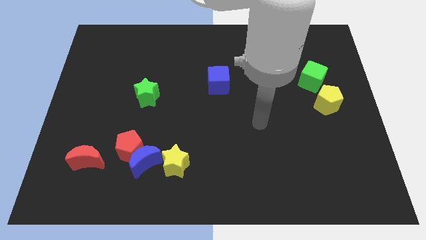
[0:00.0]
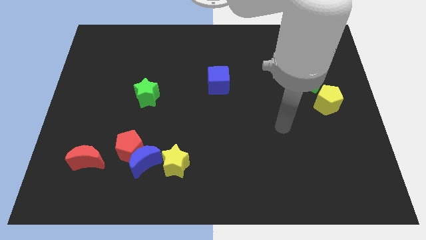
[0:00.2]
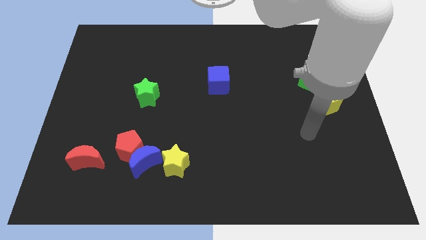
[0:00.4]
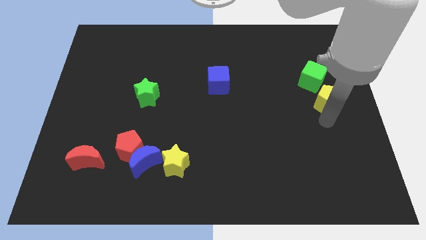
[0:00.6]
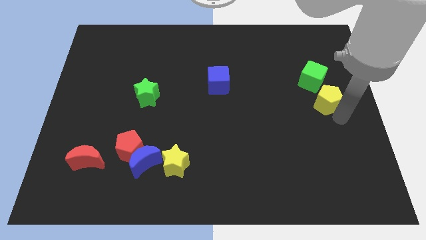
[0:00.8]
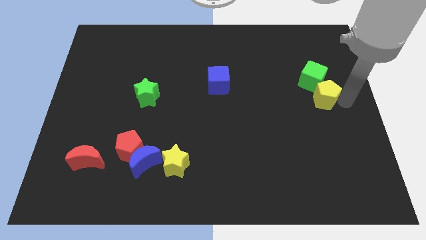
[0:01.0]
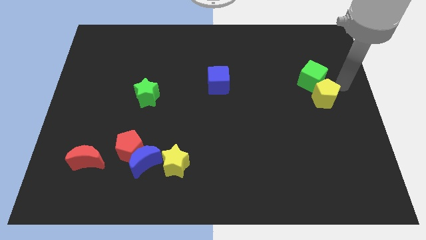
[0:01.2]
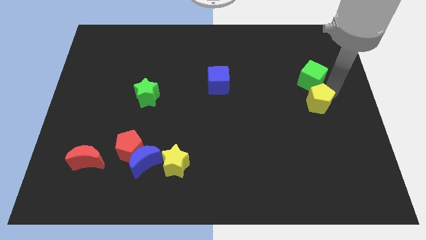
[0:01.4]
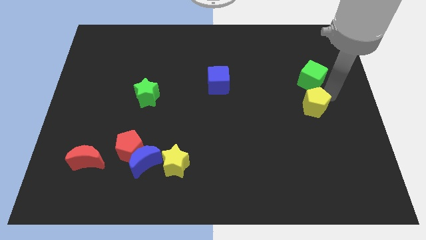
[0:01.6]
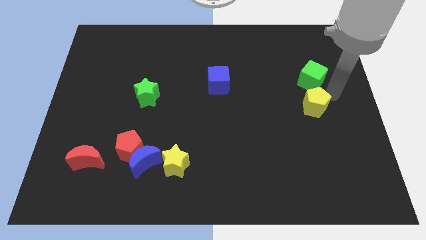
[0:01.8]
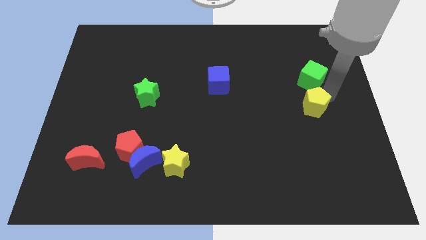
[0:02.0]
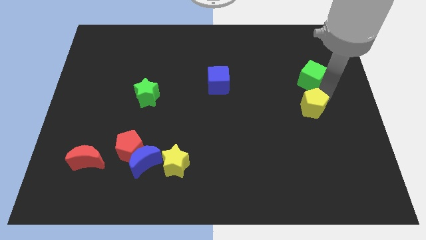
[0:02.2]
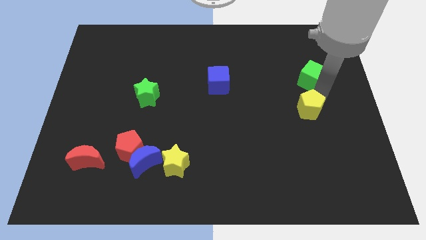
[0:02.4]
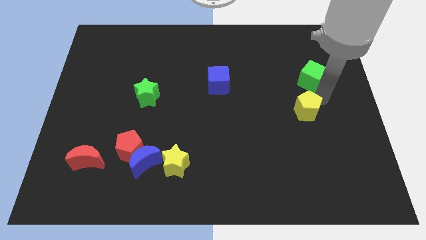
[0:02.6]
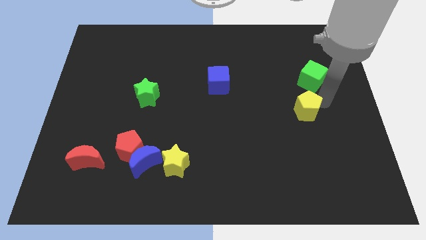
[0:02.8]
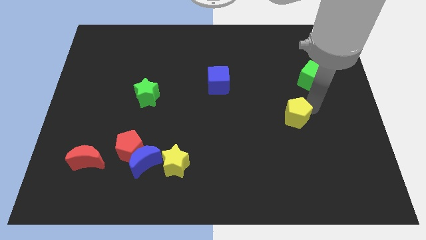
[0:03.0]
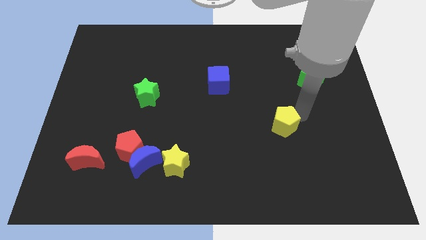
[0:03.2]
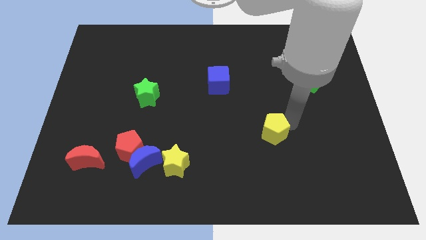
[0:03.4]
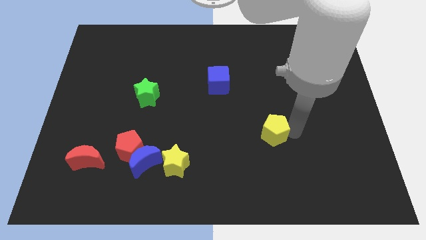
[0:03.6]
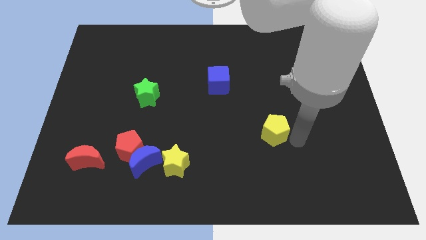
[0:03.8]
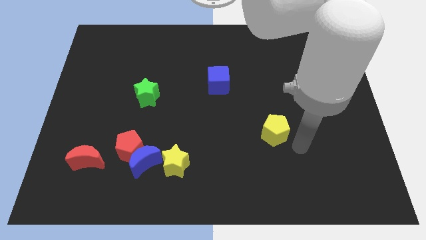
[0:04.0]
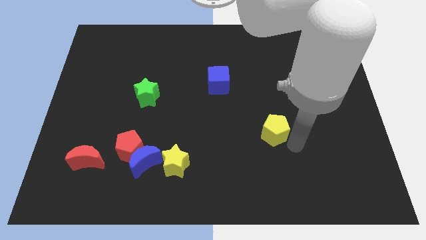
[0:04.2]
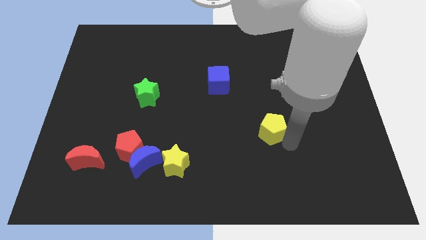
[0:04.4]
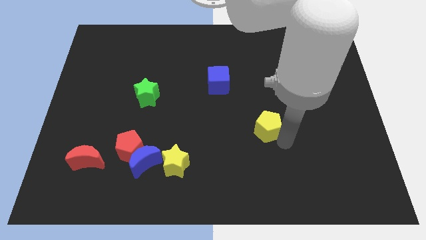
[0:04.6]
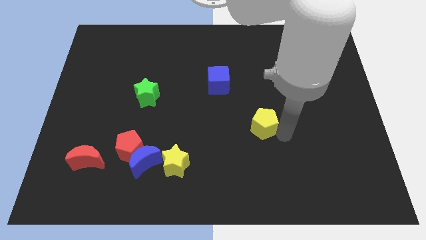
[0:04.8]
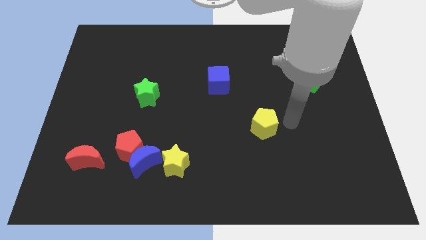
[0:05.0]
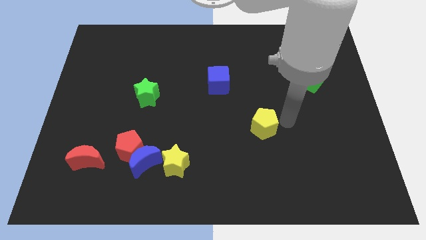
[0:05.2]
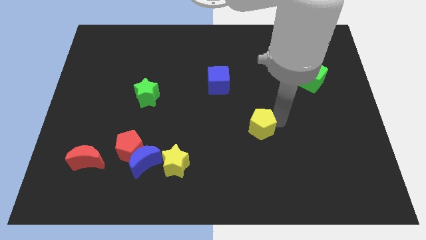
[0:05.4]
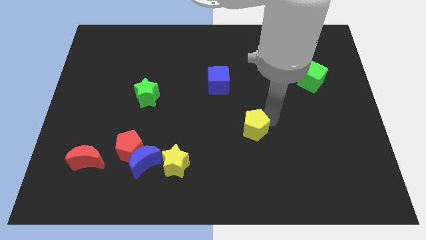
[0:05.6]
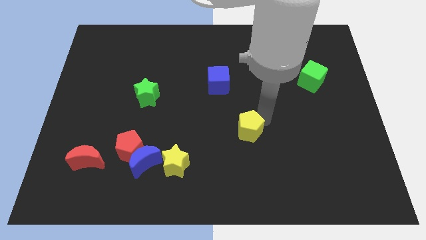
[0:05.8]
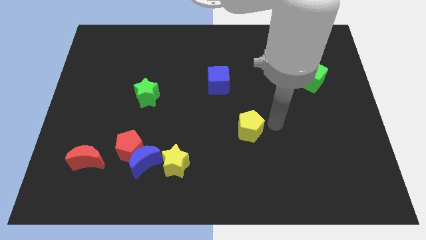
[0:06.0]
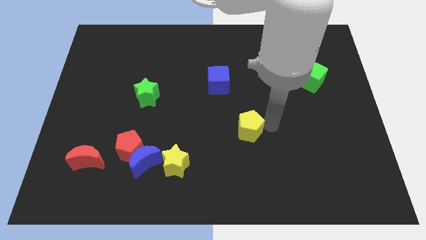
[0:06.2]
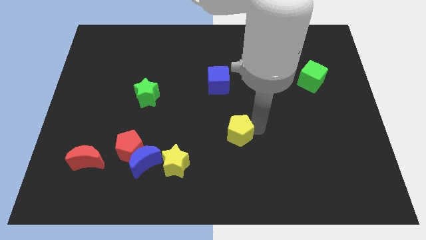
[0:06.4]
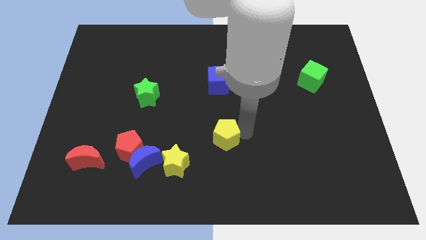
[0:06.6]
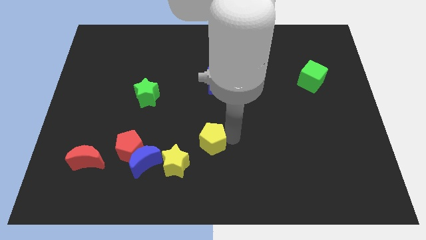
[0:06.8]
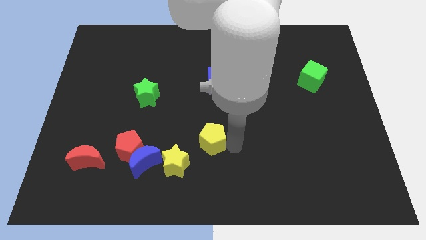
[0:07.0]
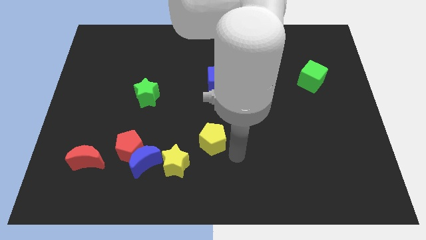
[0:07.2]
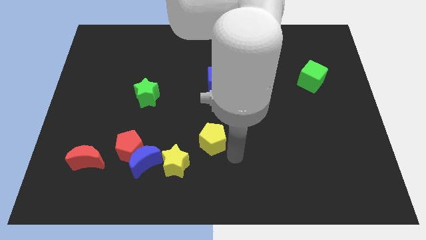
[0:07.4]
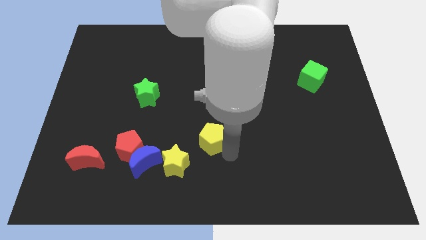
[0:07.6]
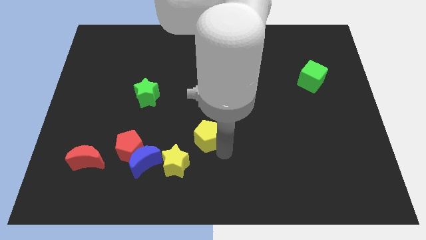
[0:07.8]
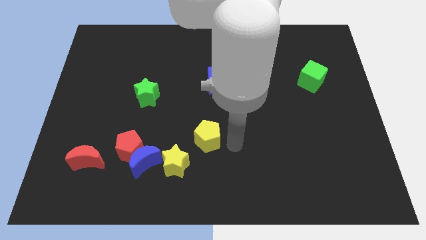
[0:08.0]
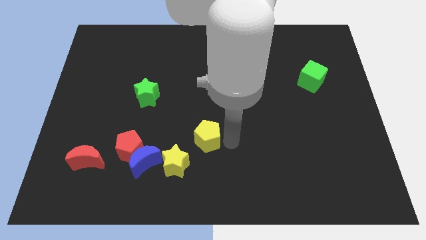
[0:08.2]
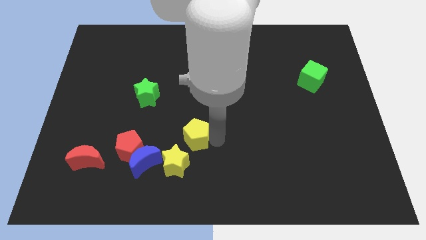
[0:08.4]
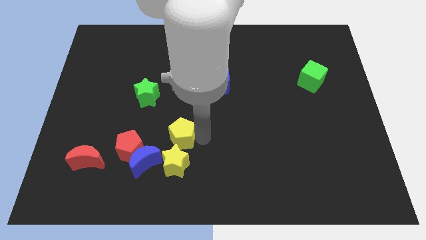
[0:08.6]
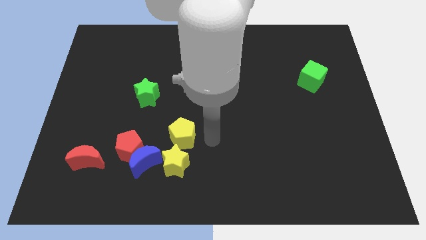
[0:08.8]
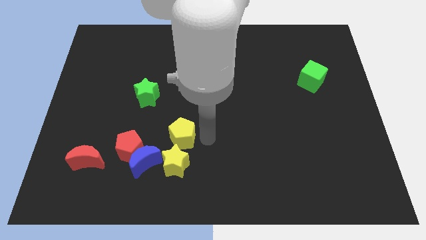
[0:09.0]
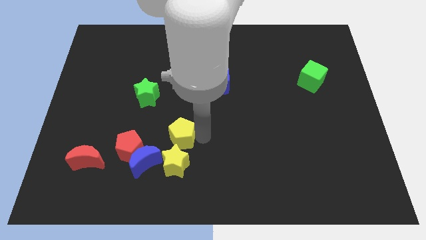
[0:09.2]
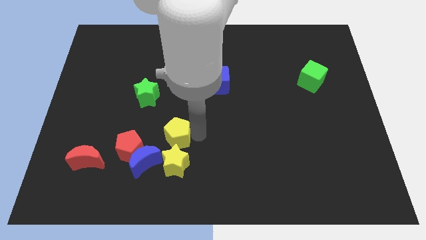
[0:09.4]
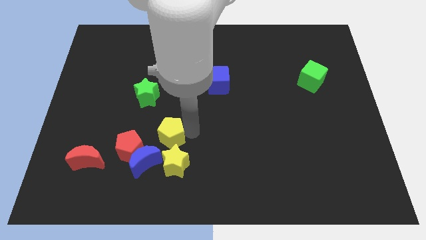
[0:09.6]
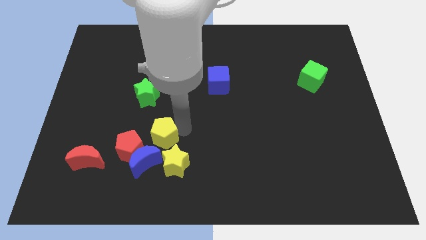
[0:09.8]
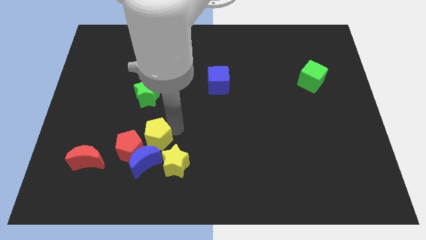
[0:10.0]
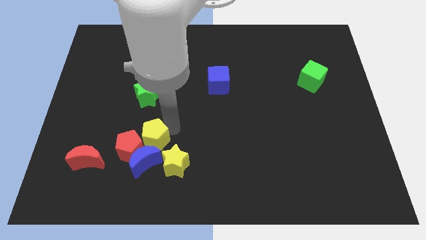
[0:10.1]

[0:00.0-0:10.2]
slide the yellow pentagon next to the red pentagon

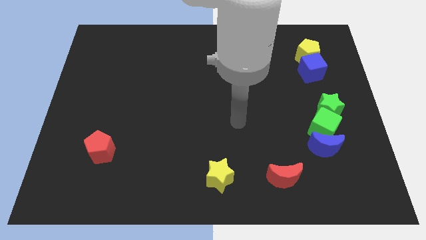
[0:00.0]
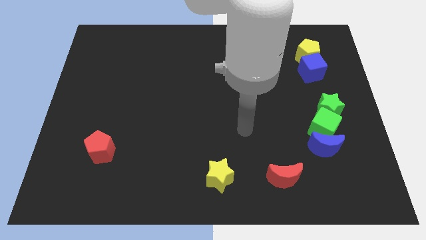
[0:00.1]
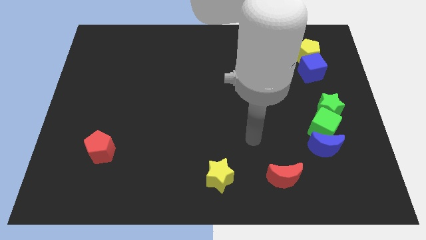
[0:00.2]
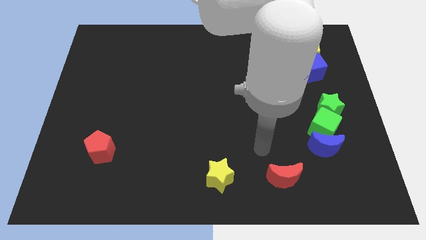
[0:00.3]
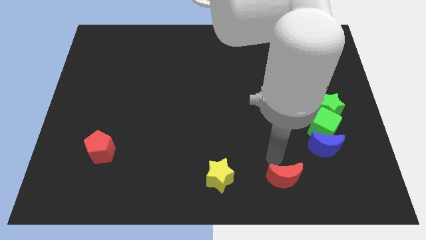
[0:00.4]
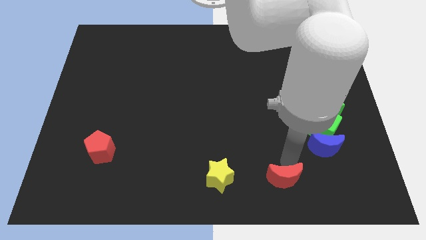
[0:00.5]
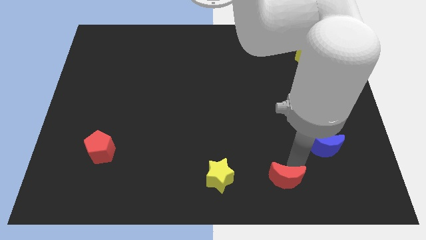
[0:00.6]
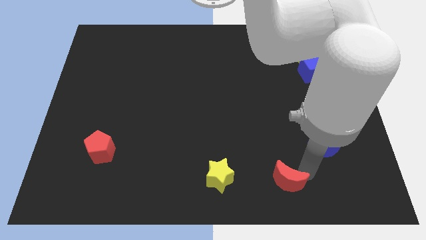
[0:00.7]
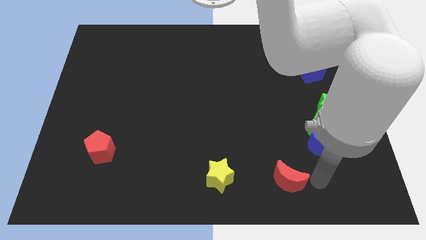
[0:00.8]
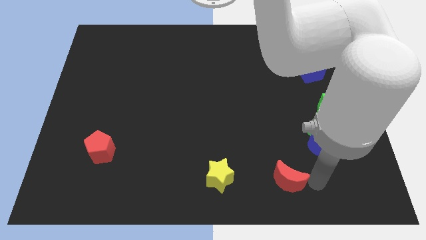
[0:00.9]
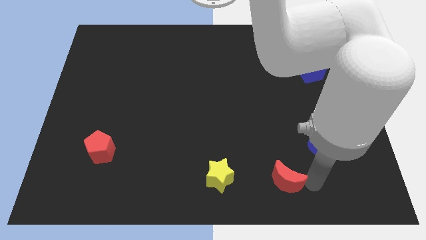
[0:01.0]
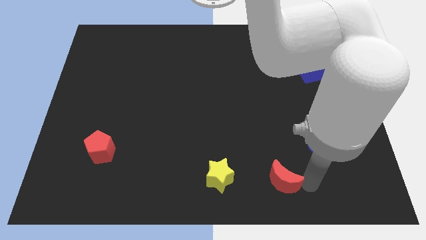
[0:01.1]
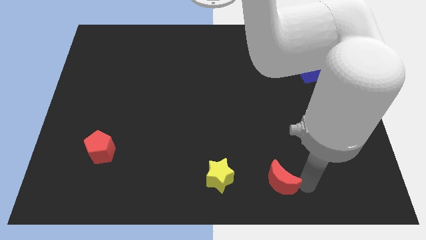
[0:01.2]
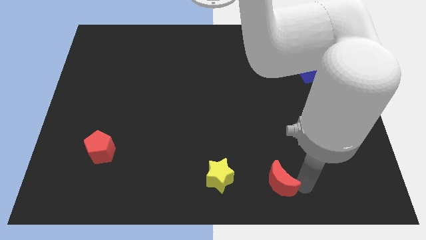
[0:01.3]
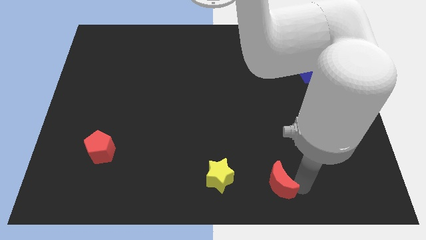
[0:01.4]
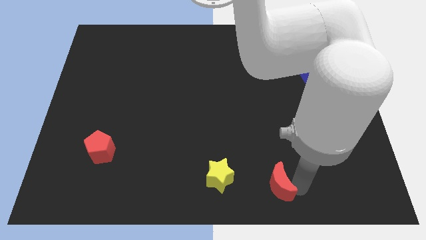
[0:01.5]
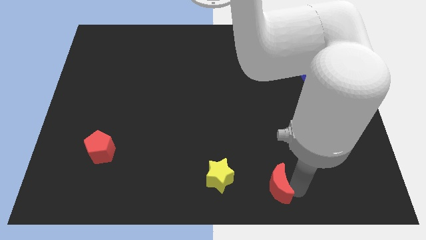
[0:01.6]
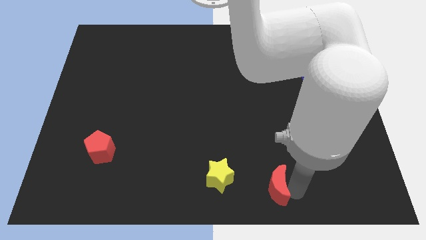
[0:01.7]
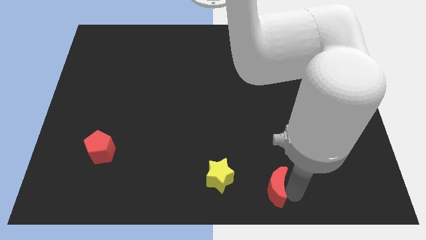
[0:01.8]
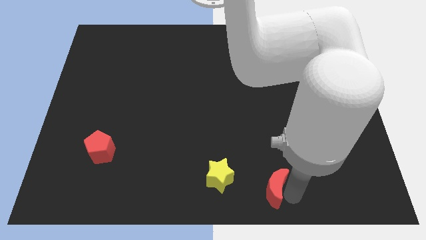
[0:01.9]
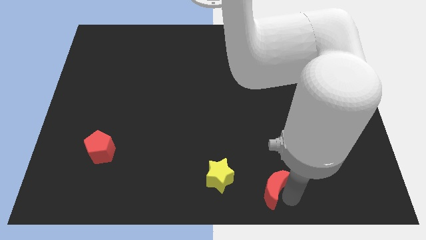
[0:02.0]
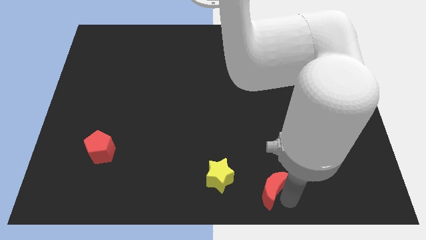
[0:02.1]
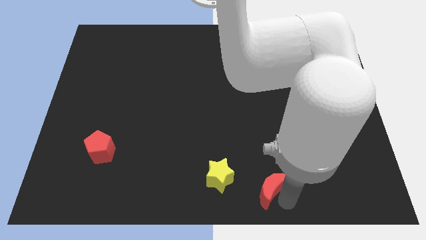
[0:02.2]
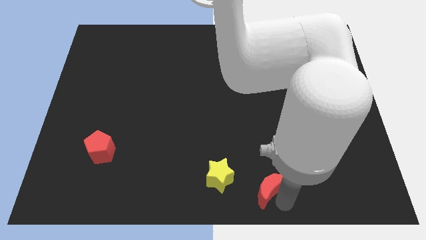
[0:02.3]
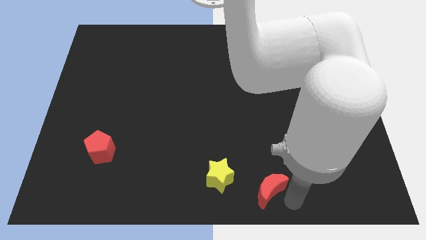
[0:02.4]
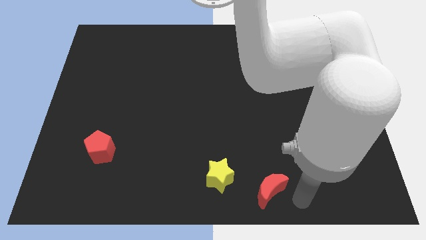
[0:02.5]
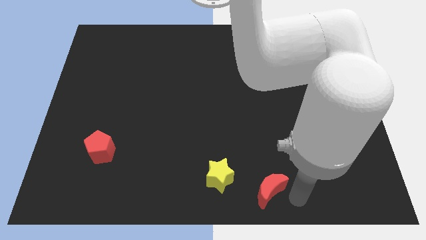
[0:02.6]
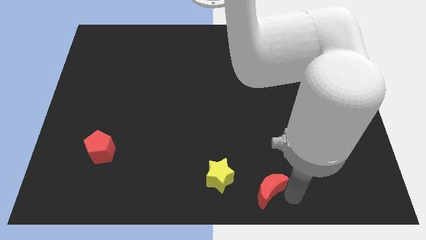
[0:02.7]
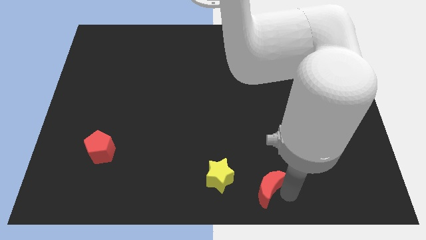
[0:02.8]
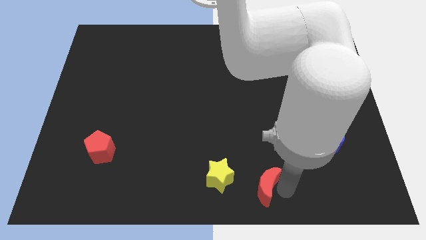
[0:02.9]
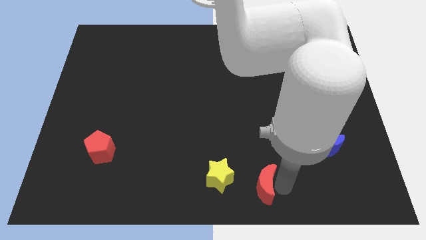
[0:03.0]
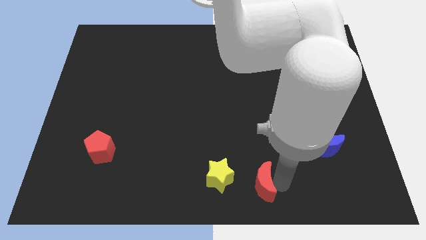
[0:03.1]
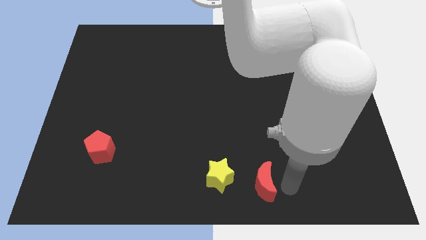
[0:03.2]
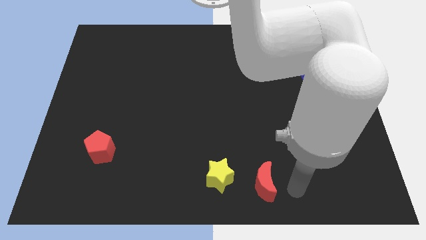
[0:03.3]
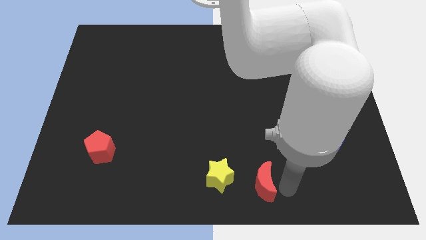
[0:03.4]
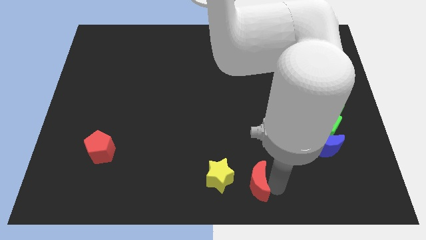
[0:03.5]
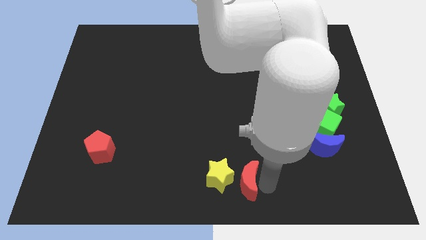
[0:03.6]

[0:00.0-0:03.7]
slide the red moon to the yellow star
